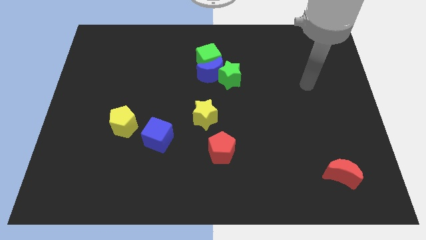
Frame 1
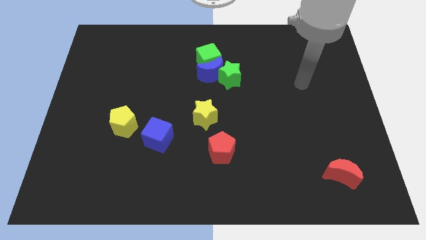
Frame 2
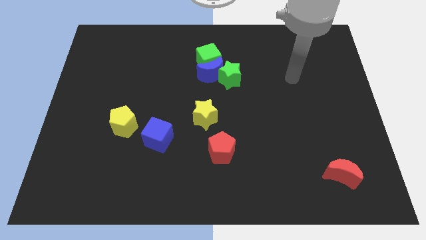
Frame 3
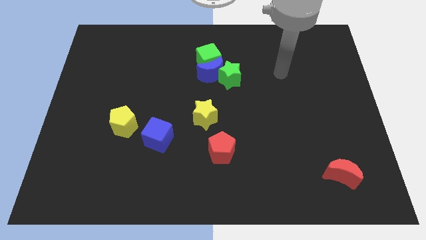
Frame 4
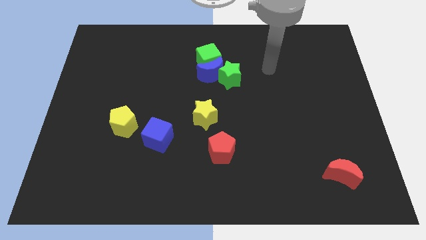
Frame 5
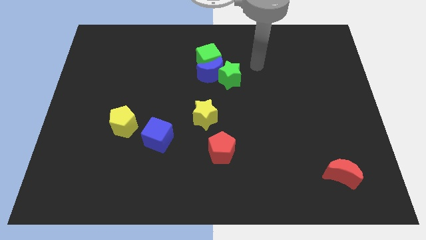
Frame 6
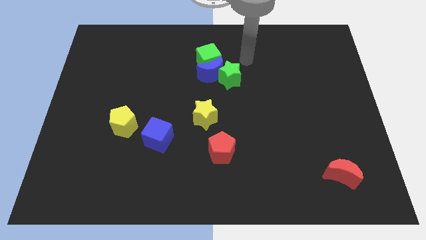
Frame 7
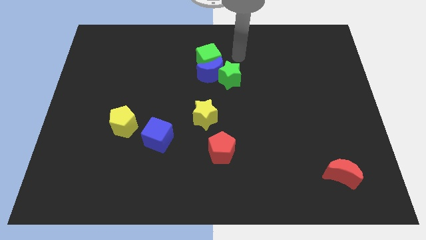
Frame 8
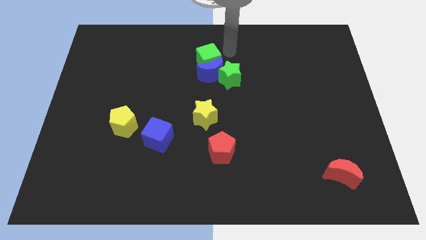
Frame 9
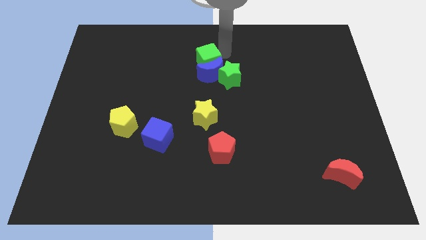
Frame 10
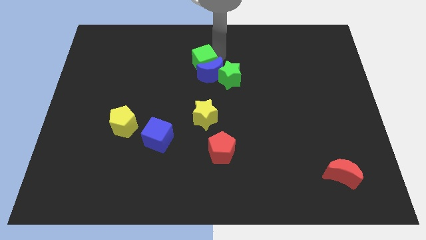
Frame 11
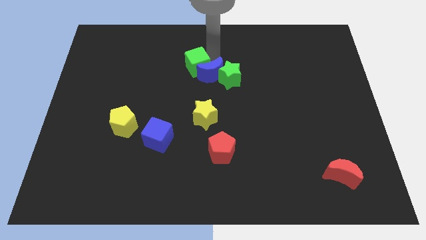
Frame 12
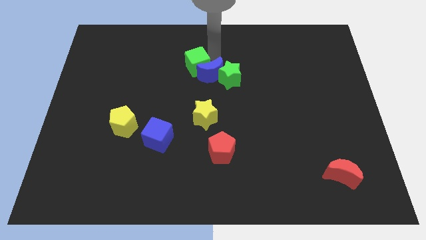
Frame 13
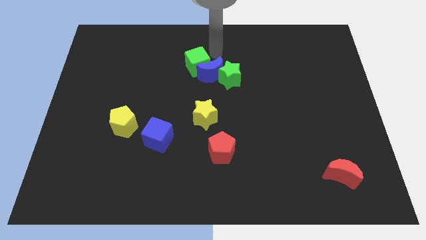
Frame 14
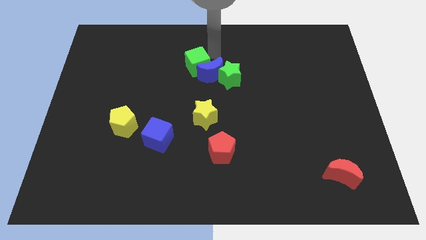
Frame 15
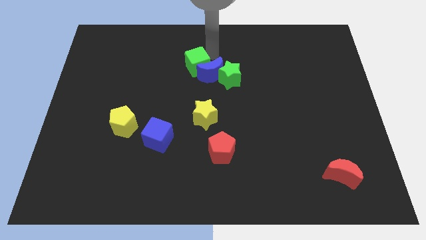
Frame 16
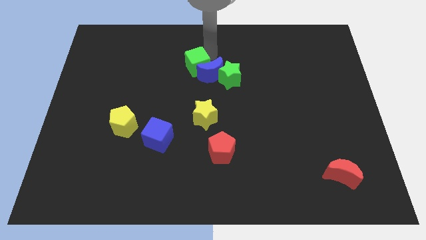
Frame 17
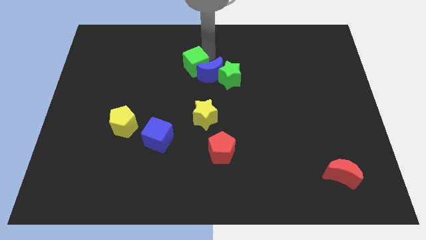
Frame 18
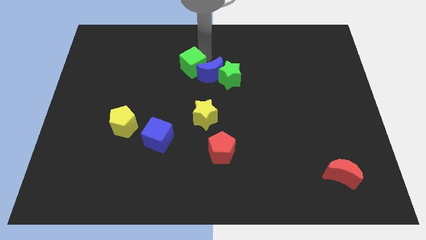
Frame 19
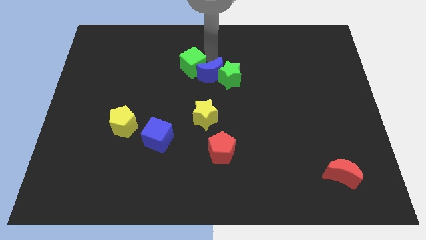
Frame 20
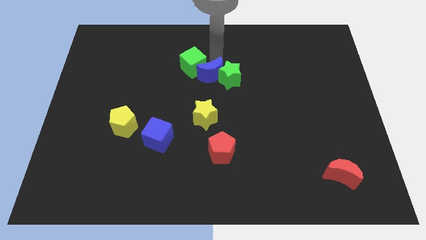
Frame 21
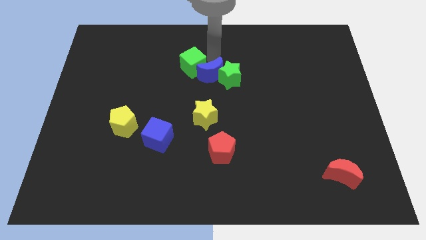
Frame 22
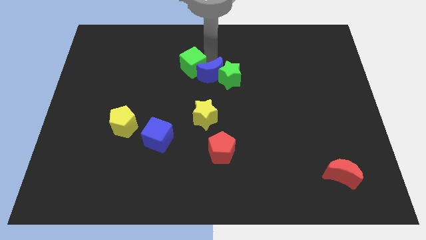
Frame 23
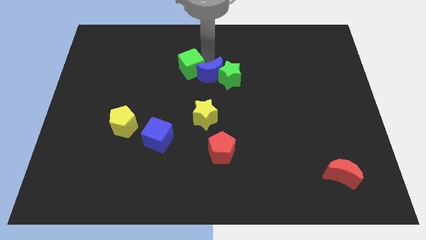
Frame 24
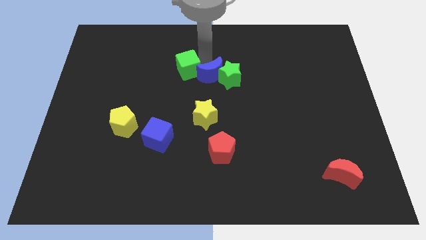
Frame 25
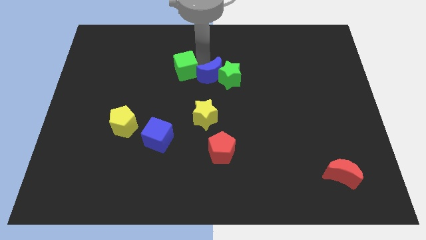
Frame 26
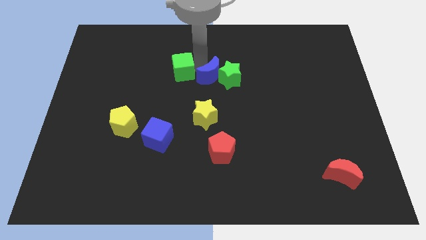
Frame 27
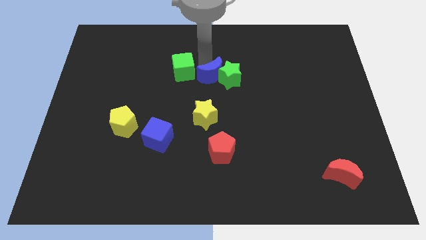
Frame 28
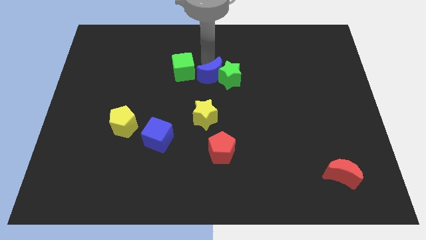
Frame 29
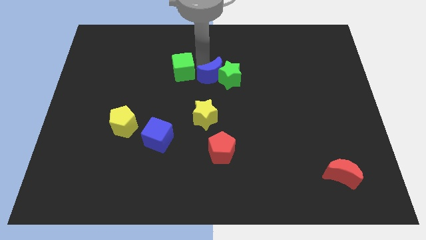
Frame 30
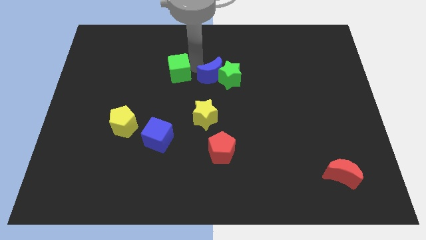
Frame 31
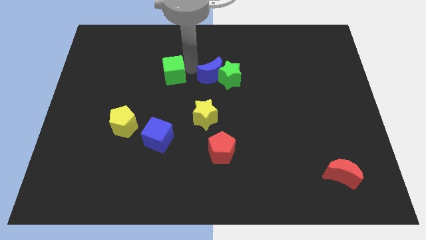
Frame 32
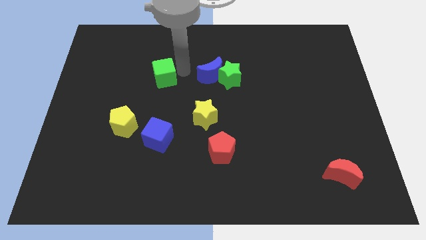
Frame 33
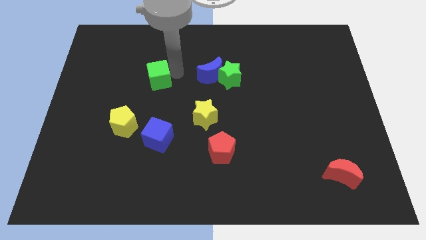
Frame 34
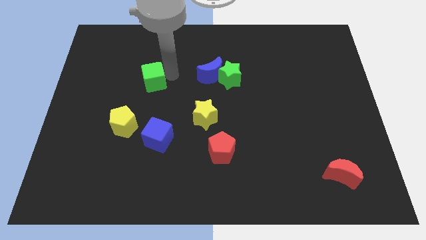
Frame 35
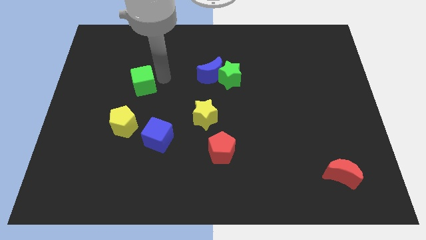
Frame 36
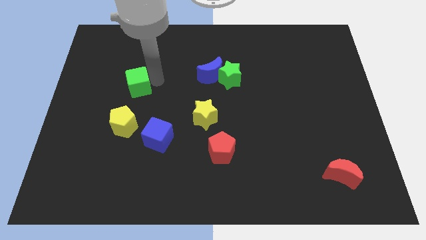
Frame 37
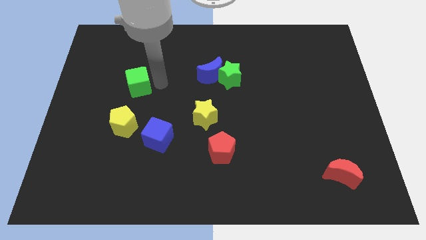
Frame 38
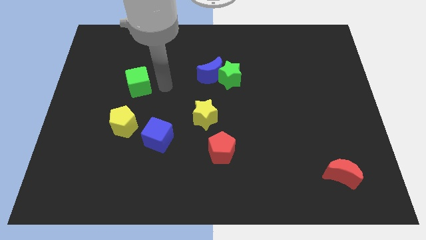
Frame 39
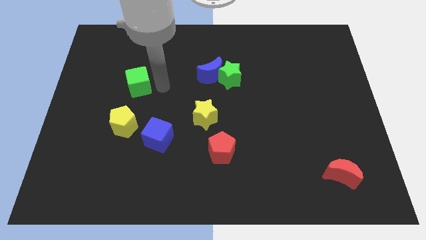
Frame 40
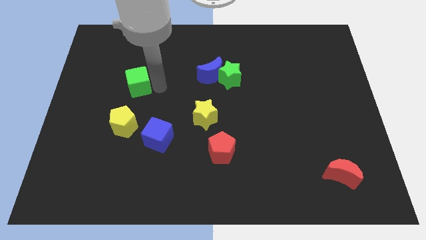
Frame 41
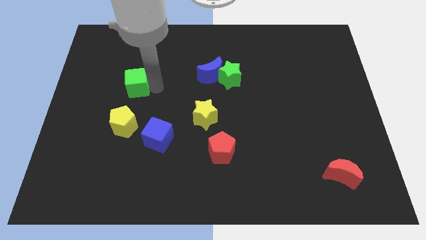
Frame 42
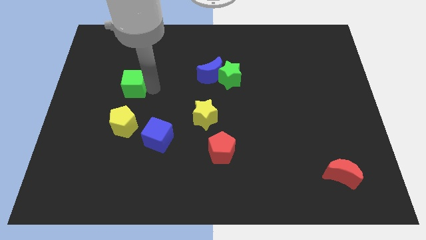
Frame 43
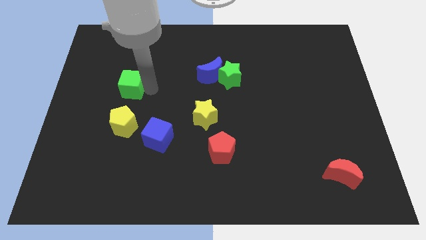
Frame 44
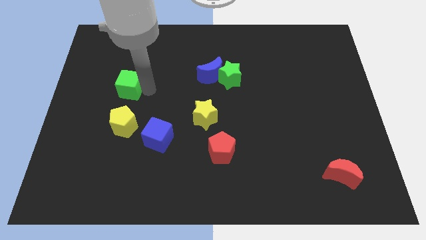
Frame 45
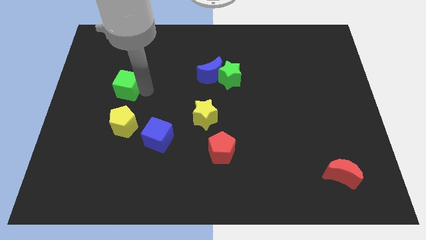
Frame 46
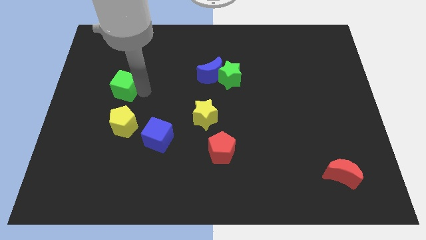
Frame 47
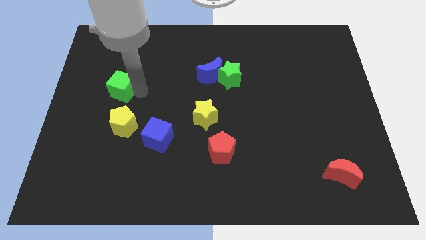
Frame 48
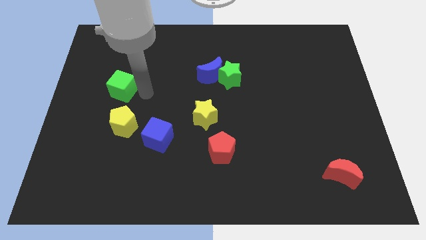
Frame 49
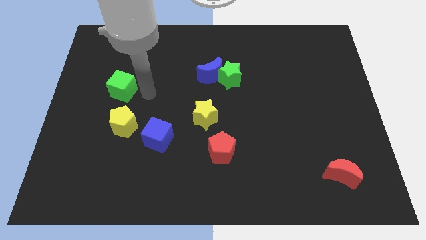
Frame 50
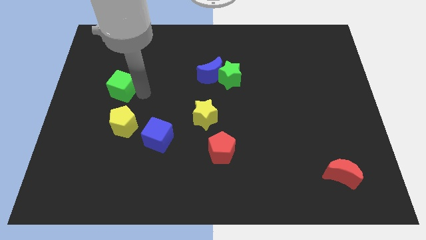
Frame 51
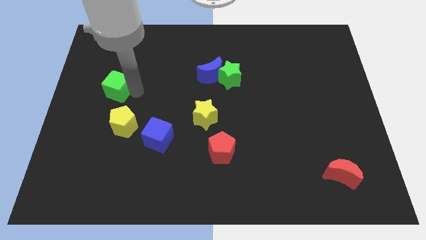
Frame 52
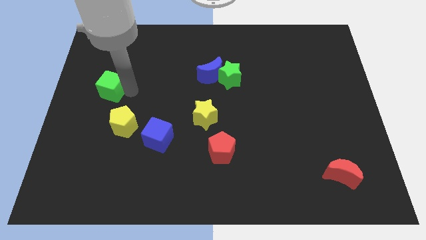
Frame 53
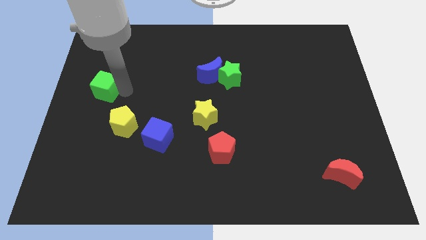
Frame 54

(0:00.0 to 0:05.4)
slide the green cube to the left side

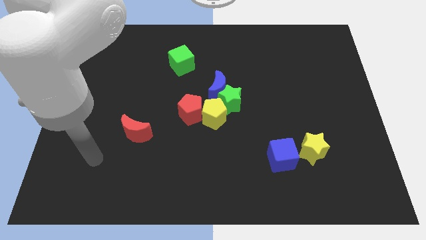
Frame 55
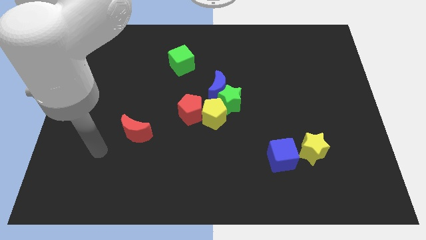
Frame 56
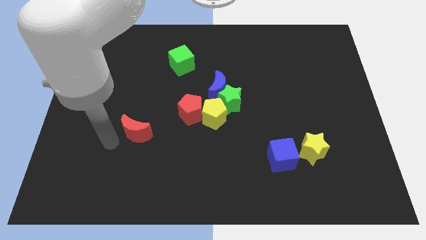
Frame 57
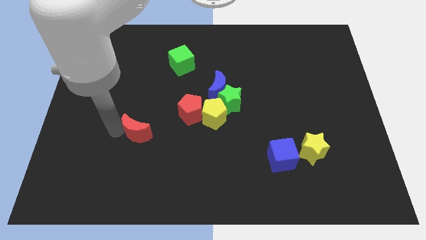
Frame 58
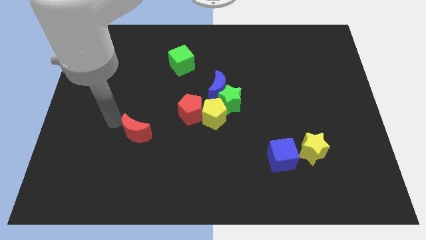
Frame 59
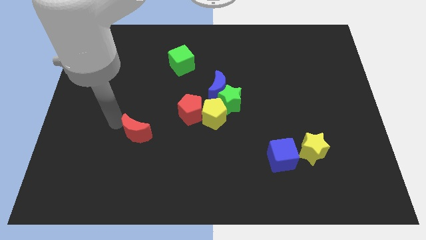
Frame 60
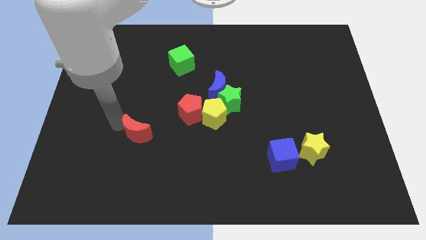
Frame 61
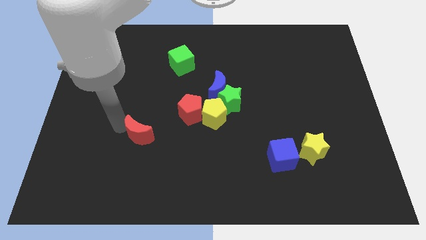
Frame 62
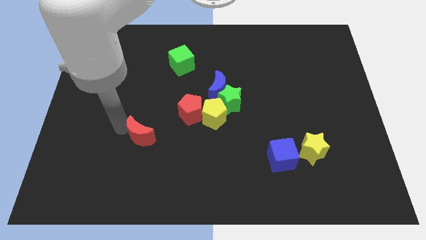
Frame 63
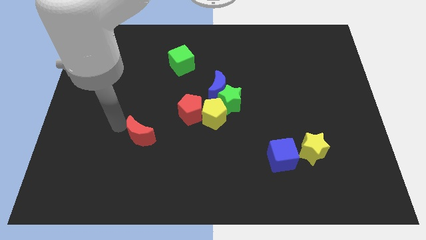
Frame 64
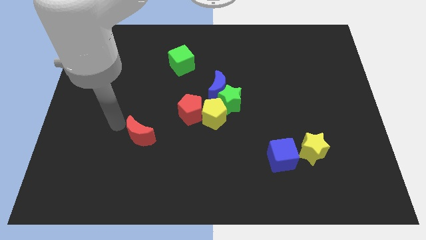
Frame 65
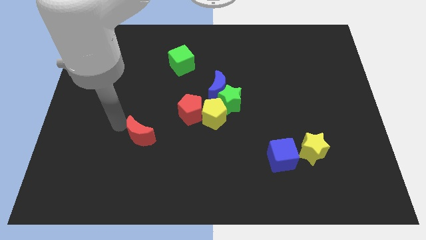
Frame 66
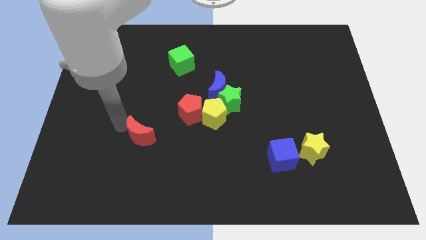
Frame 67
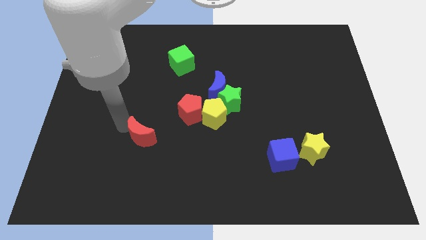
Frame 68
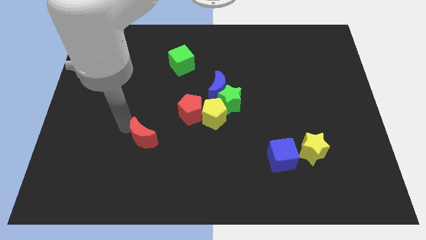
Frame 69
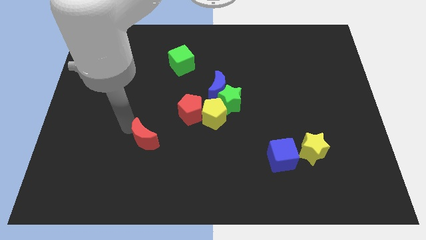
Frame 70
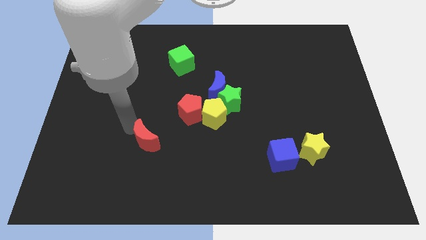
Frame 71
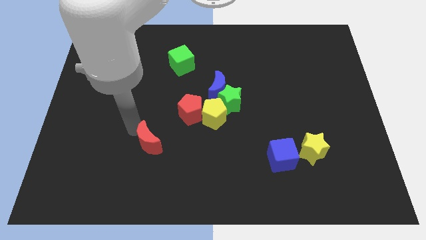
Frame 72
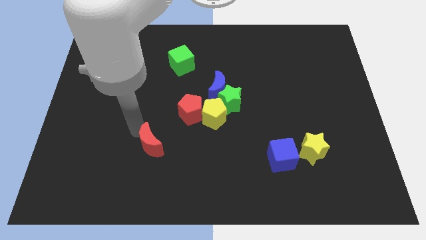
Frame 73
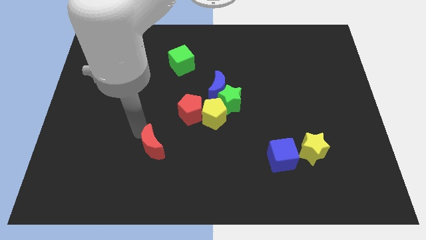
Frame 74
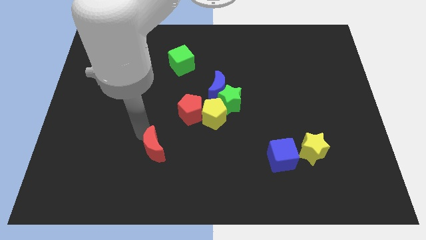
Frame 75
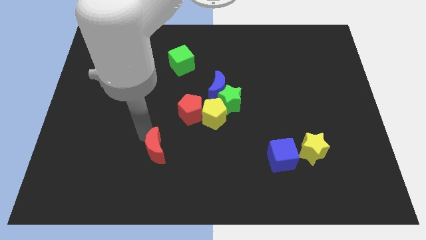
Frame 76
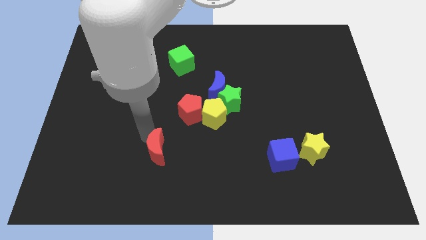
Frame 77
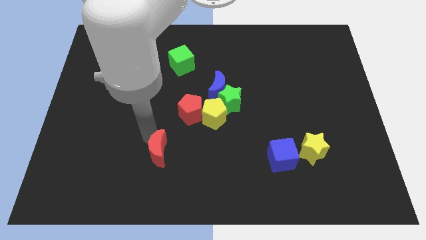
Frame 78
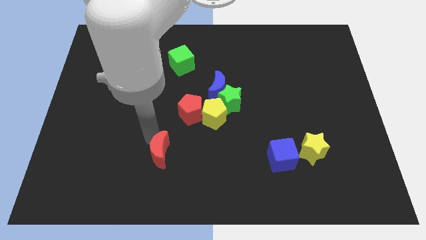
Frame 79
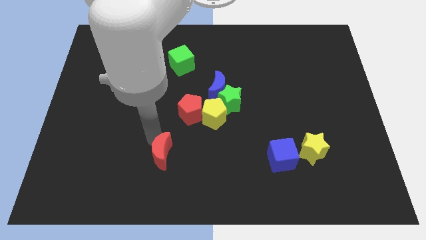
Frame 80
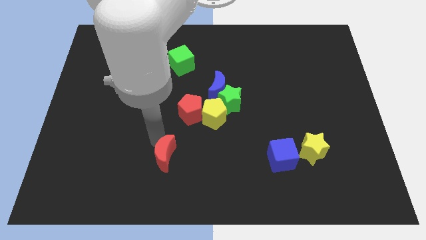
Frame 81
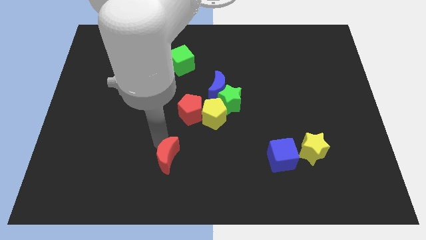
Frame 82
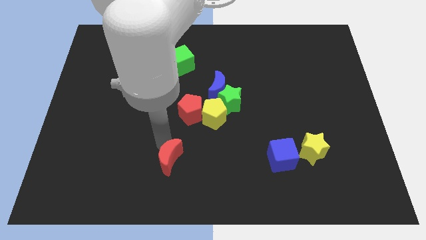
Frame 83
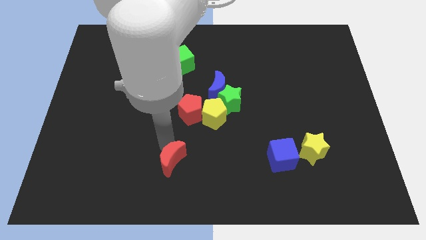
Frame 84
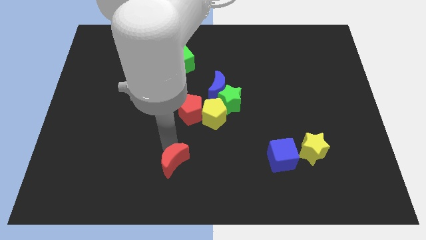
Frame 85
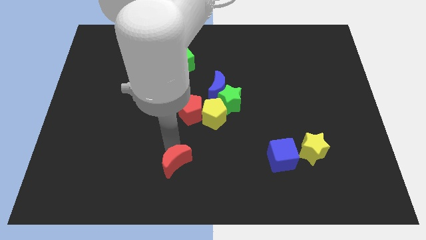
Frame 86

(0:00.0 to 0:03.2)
put the red moon to the bottom side
